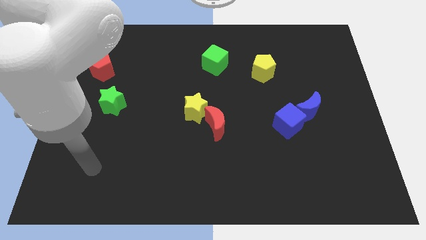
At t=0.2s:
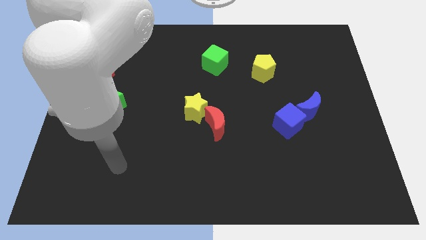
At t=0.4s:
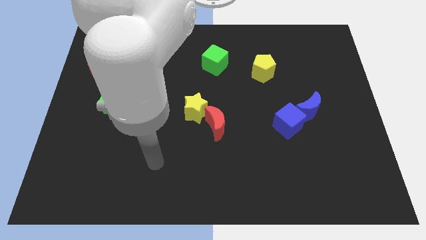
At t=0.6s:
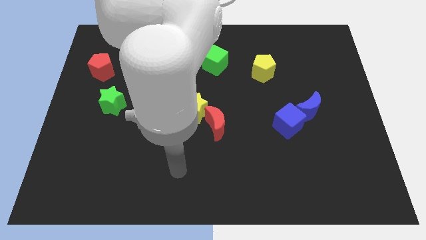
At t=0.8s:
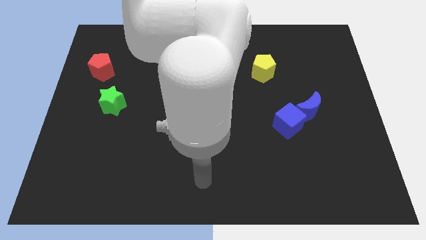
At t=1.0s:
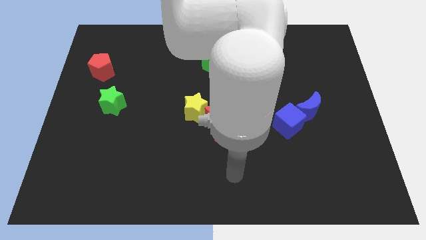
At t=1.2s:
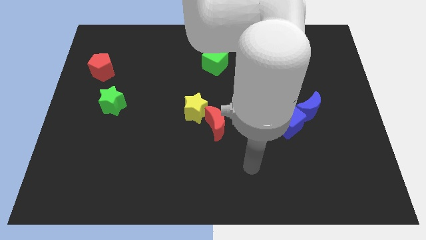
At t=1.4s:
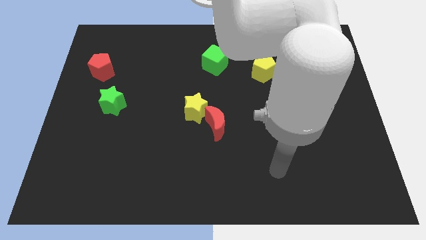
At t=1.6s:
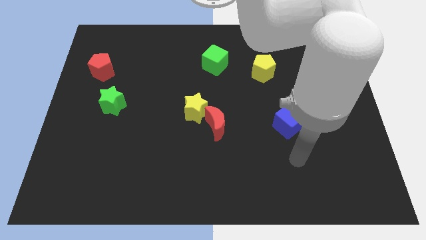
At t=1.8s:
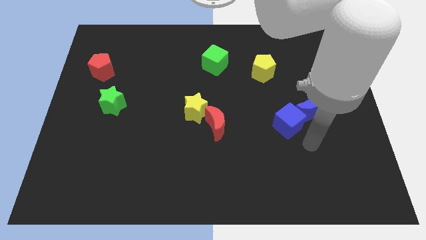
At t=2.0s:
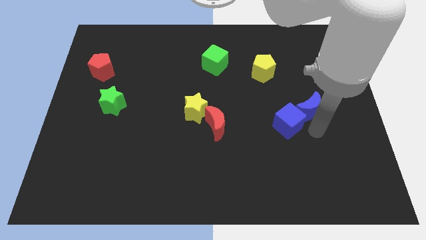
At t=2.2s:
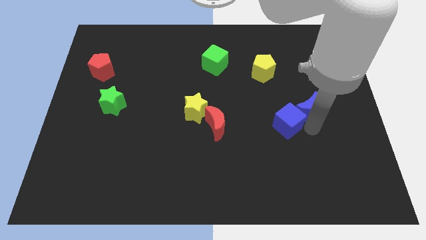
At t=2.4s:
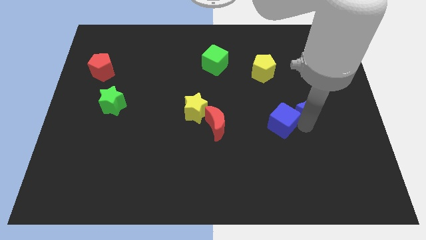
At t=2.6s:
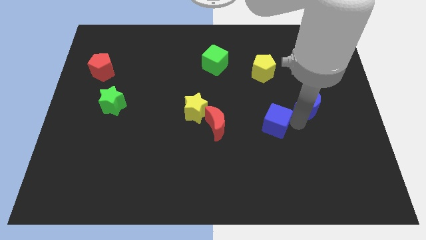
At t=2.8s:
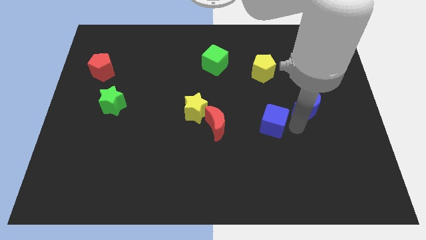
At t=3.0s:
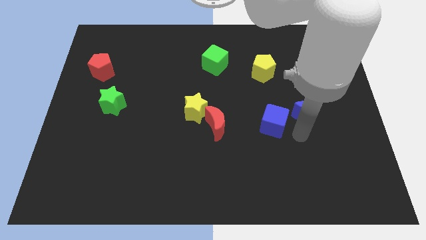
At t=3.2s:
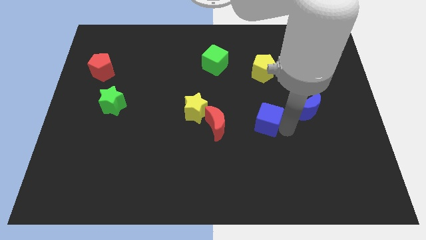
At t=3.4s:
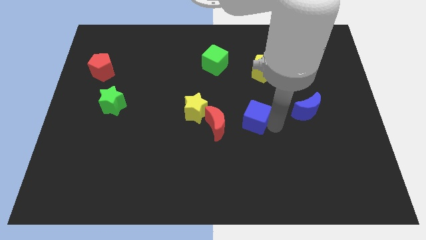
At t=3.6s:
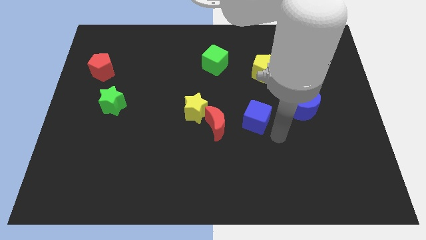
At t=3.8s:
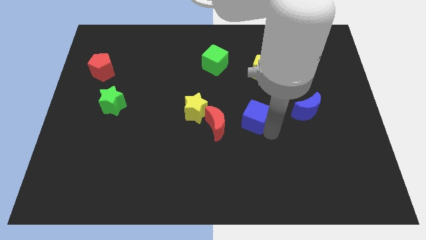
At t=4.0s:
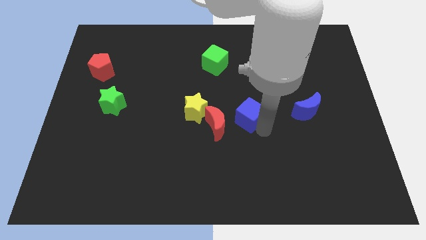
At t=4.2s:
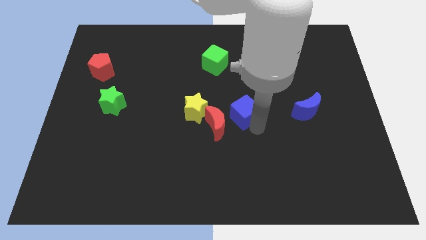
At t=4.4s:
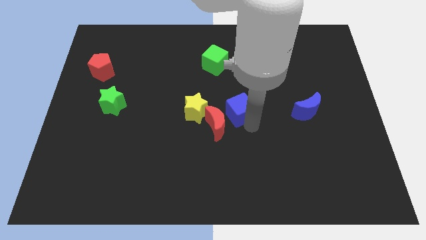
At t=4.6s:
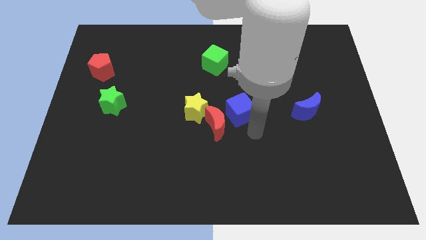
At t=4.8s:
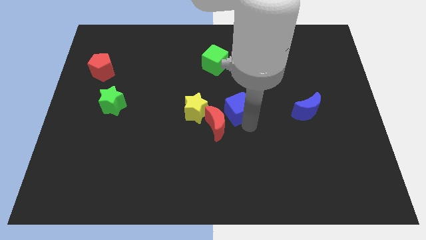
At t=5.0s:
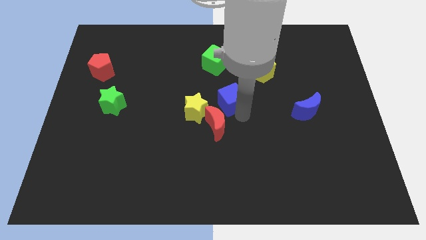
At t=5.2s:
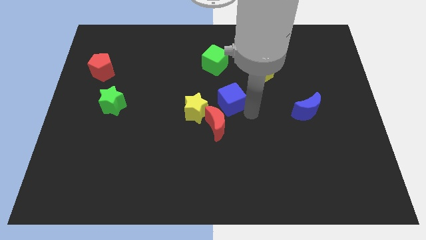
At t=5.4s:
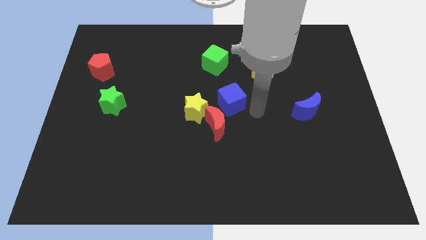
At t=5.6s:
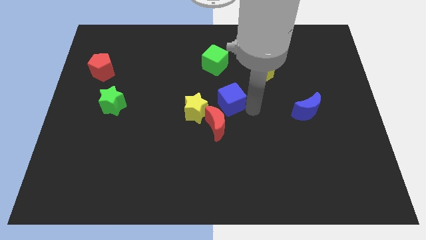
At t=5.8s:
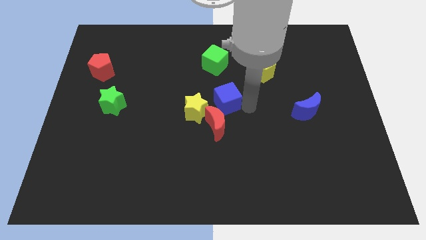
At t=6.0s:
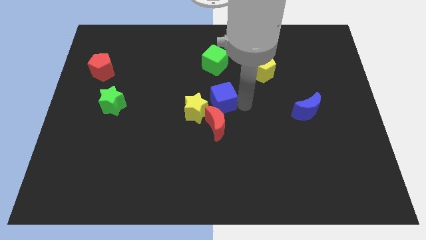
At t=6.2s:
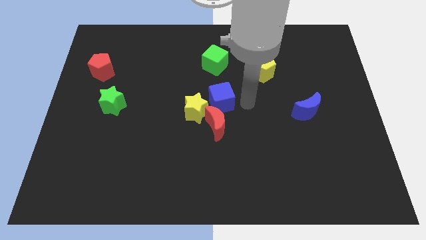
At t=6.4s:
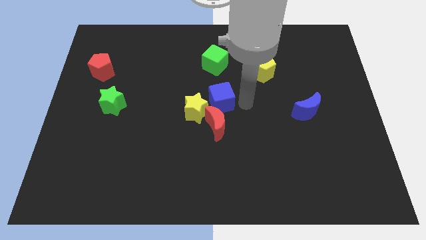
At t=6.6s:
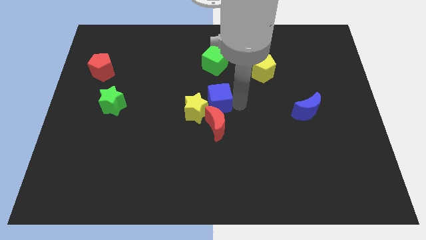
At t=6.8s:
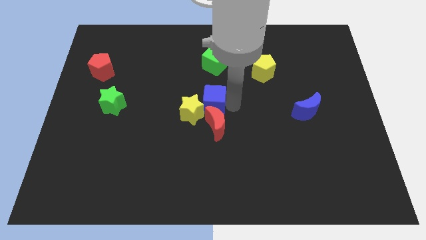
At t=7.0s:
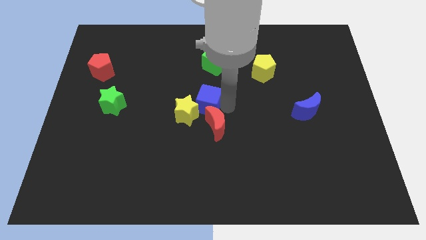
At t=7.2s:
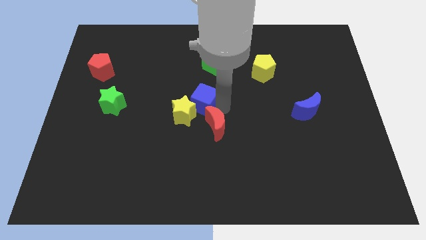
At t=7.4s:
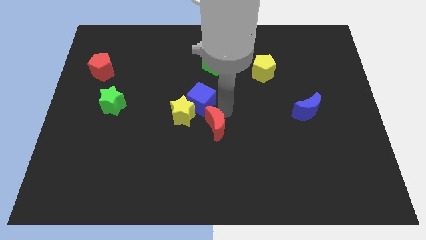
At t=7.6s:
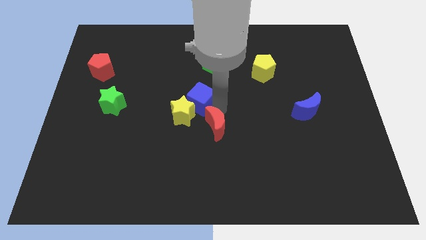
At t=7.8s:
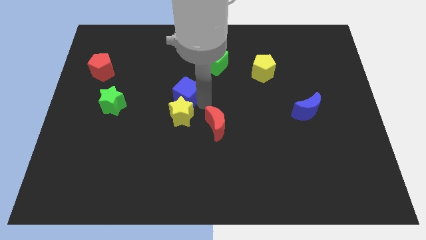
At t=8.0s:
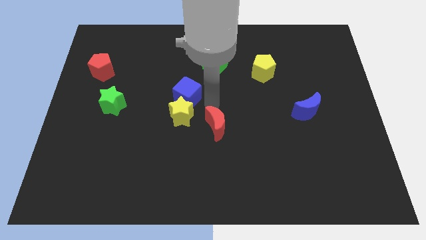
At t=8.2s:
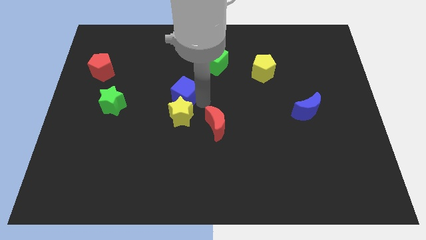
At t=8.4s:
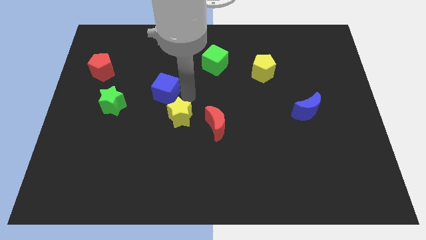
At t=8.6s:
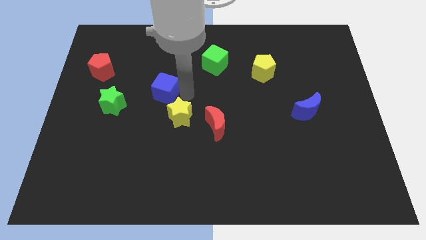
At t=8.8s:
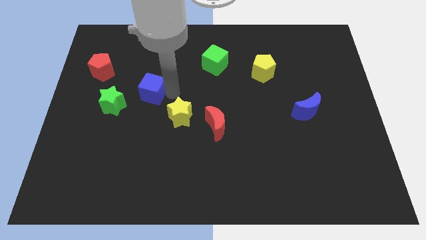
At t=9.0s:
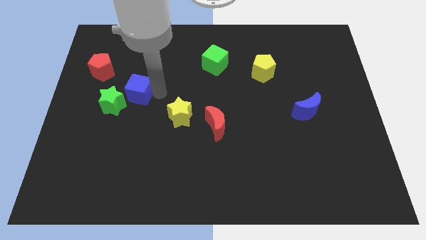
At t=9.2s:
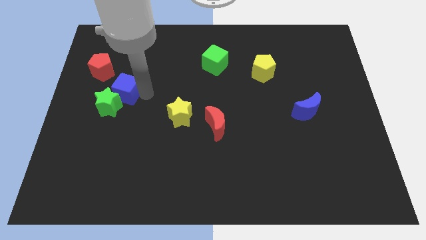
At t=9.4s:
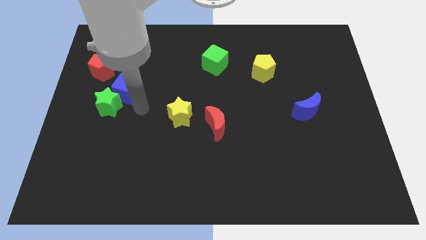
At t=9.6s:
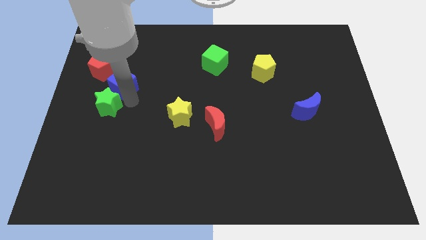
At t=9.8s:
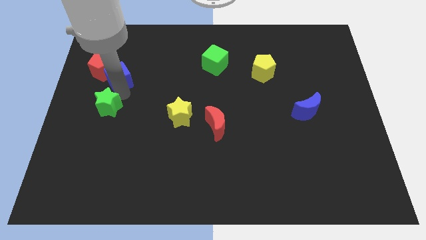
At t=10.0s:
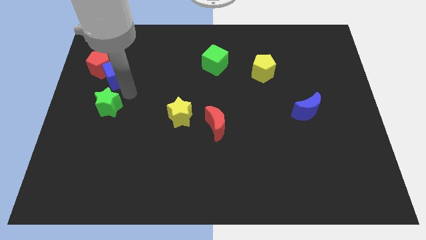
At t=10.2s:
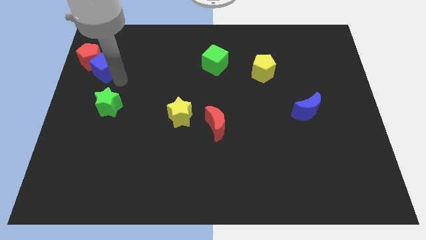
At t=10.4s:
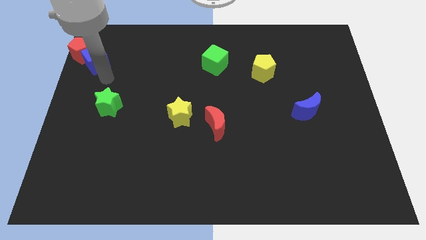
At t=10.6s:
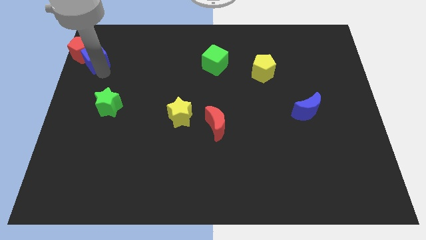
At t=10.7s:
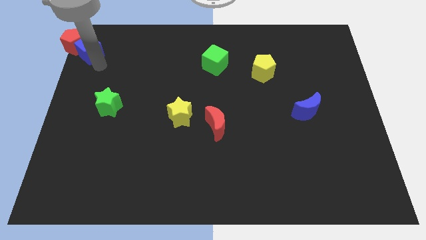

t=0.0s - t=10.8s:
move the blue cube to the top left

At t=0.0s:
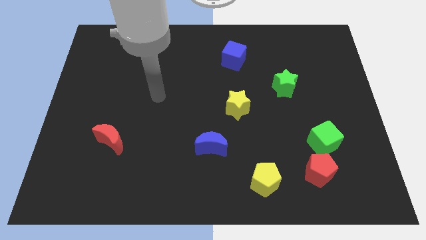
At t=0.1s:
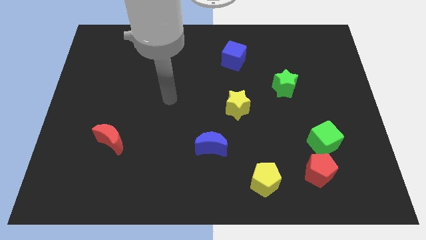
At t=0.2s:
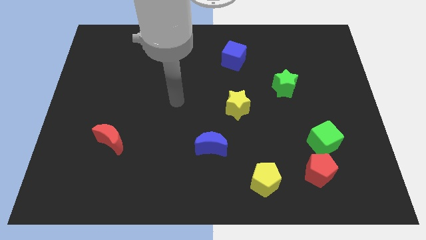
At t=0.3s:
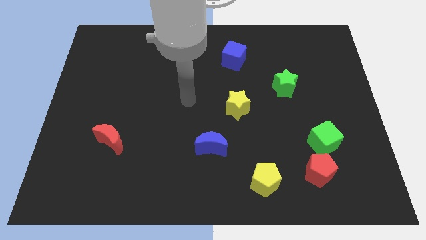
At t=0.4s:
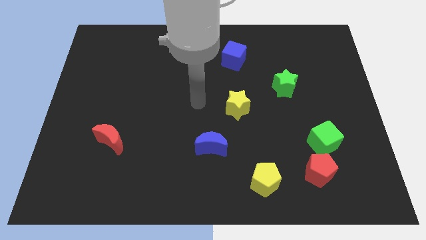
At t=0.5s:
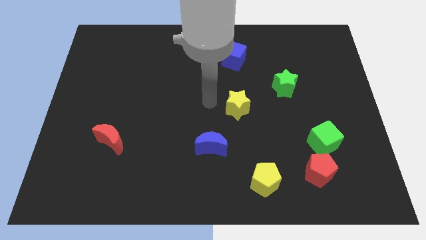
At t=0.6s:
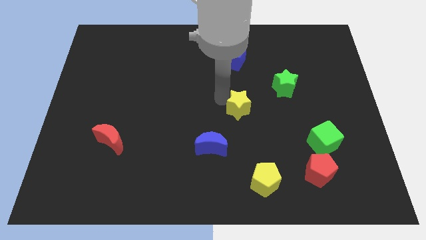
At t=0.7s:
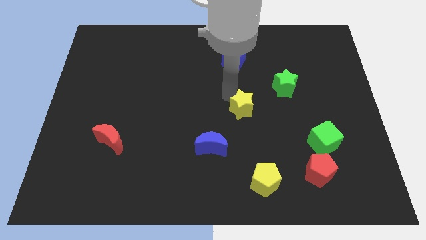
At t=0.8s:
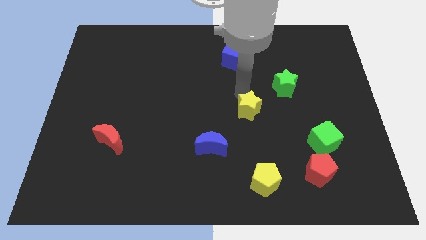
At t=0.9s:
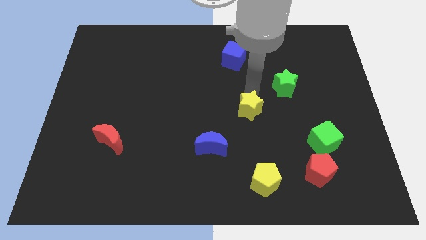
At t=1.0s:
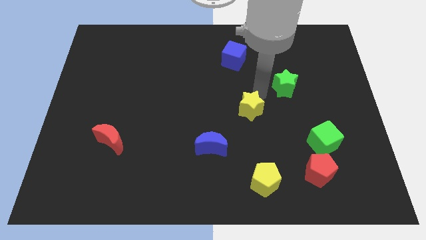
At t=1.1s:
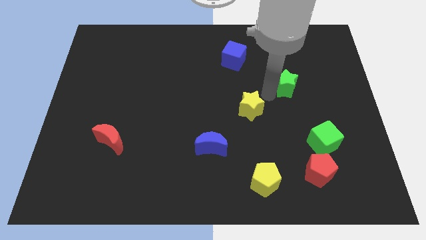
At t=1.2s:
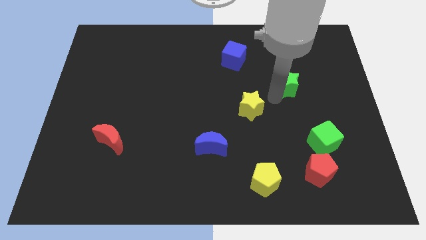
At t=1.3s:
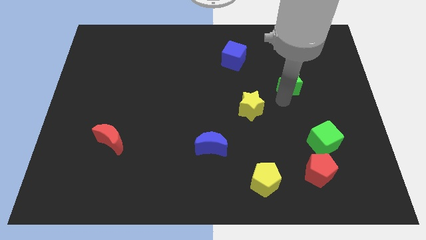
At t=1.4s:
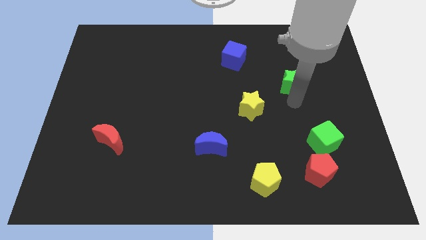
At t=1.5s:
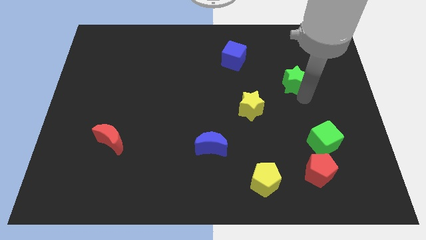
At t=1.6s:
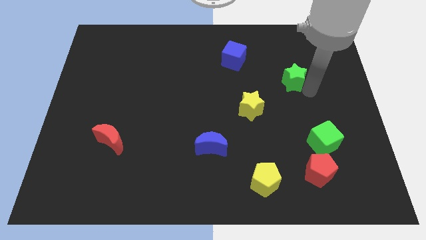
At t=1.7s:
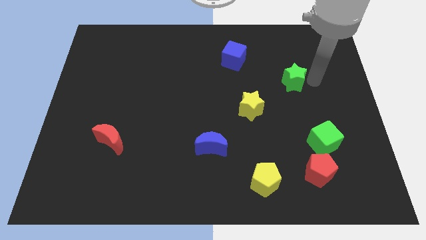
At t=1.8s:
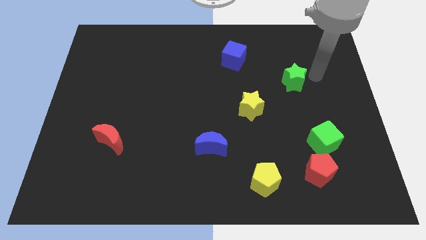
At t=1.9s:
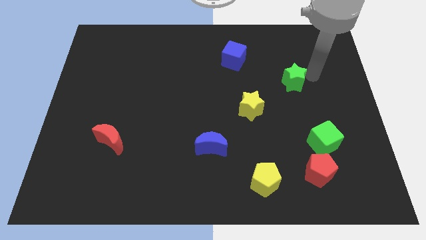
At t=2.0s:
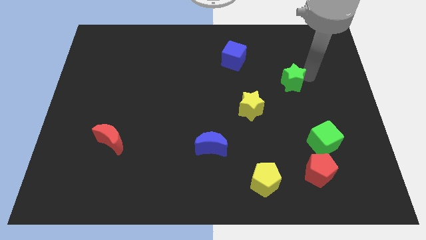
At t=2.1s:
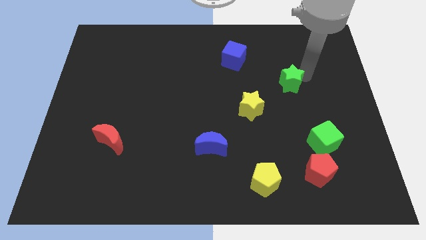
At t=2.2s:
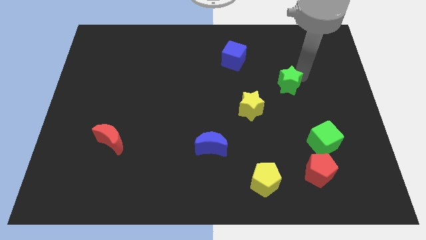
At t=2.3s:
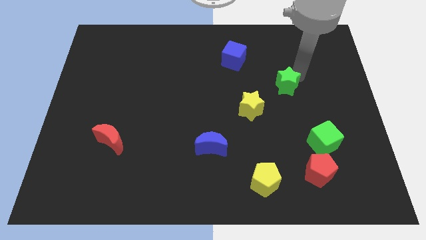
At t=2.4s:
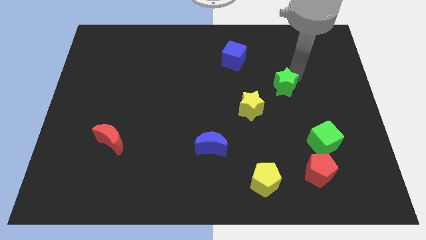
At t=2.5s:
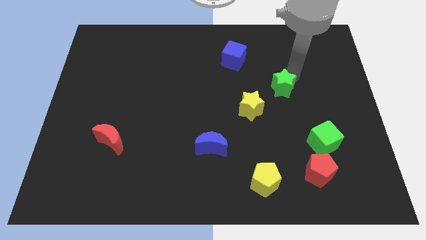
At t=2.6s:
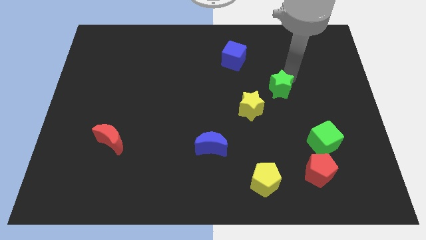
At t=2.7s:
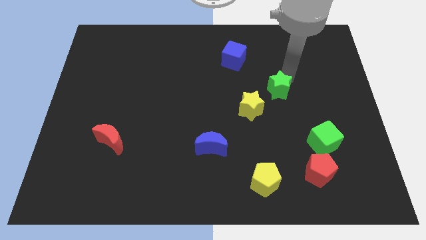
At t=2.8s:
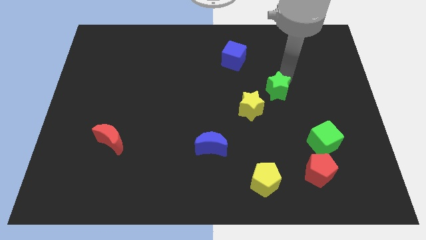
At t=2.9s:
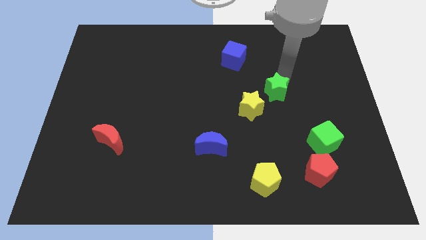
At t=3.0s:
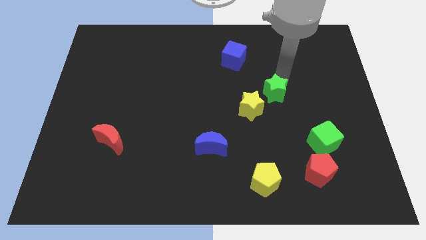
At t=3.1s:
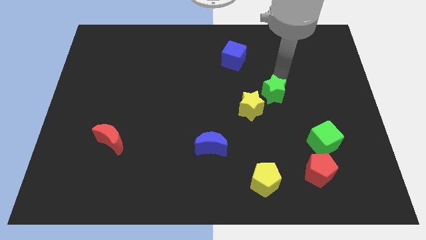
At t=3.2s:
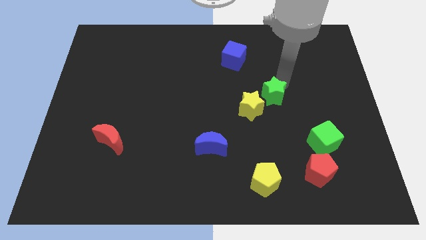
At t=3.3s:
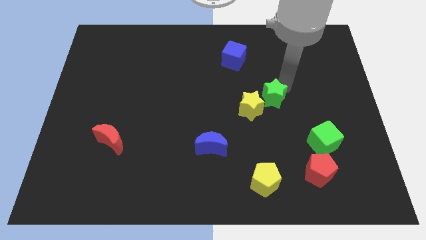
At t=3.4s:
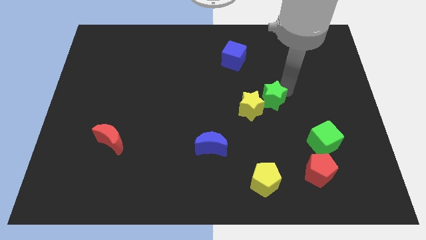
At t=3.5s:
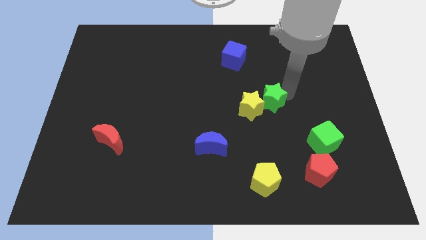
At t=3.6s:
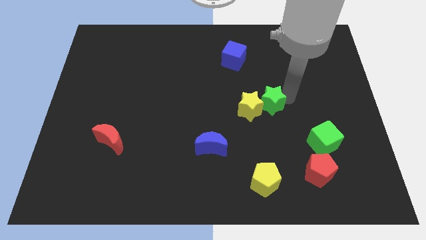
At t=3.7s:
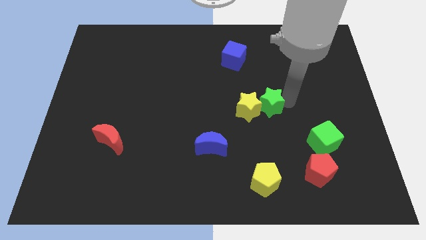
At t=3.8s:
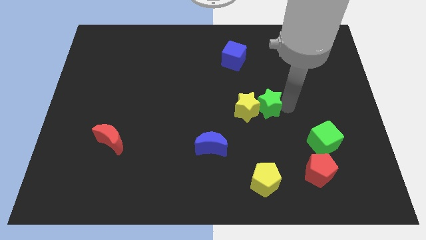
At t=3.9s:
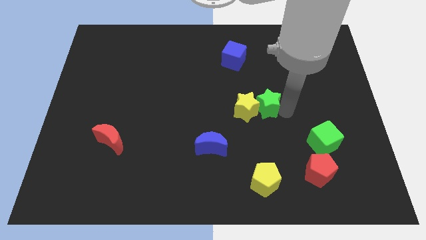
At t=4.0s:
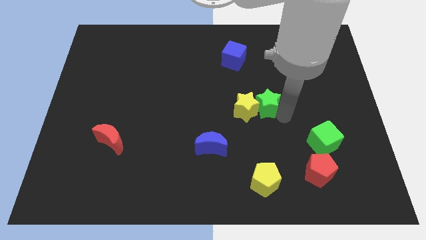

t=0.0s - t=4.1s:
move the green star to the center of the board
